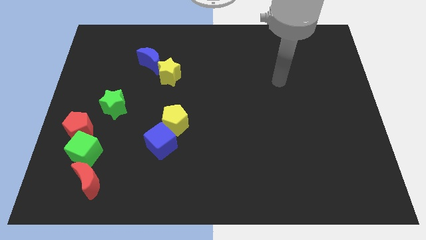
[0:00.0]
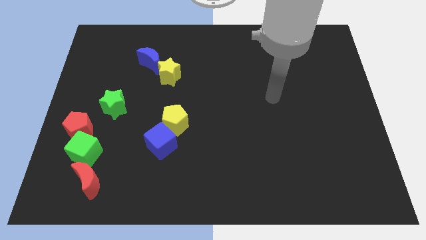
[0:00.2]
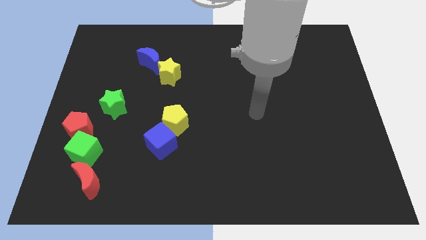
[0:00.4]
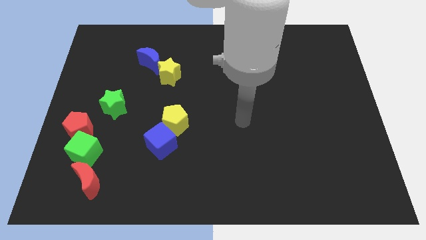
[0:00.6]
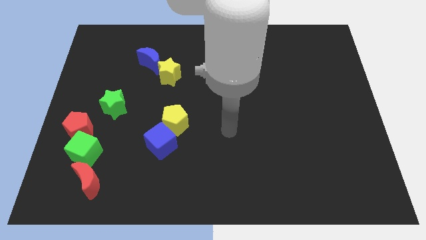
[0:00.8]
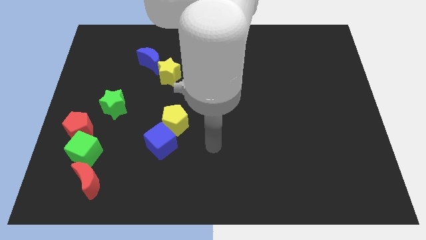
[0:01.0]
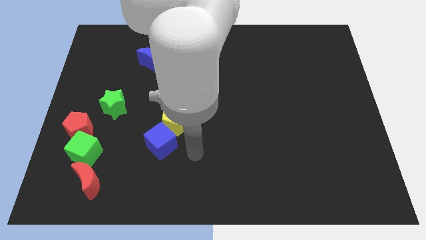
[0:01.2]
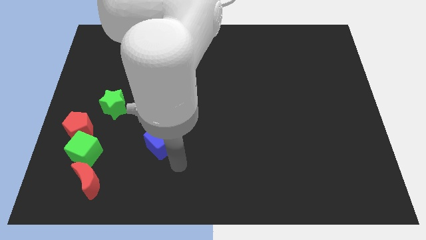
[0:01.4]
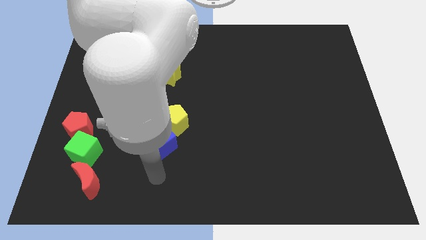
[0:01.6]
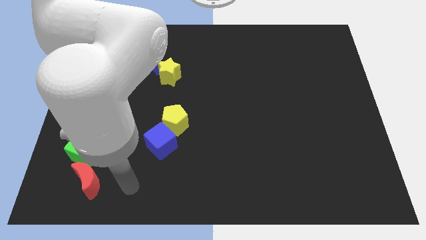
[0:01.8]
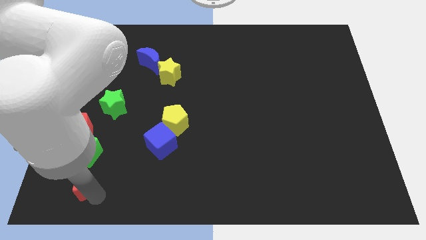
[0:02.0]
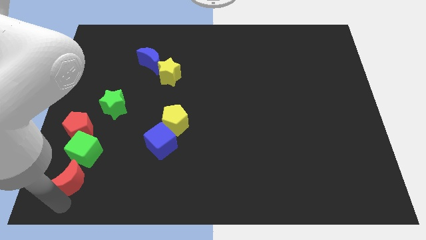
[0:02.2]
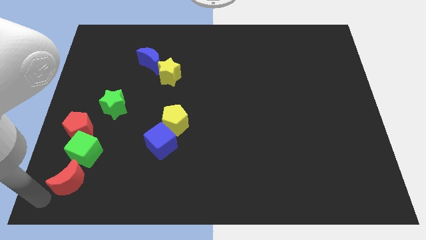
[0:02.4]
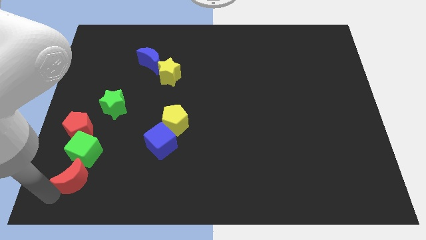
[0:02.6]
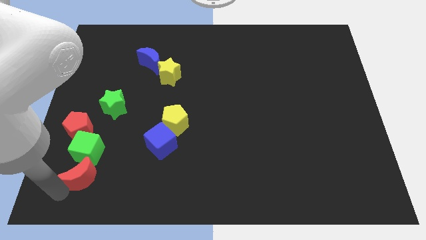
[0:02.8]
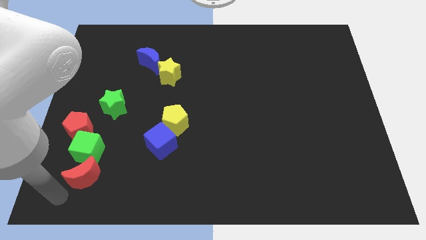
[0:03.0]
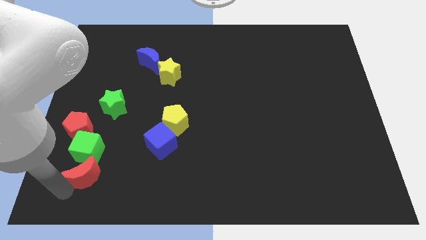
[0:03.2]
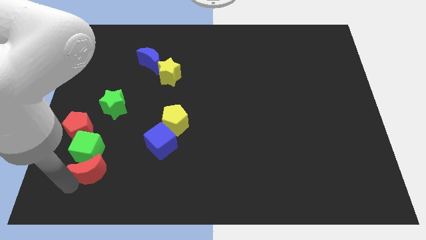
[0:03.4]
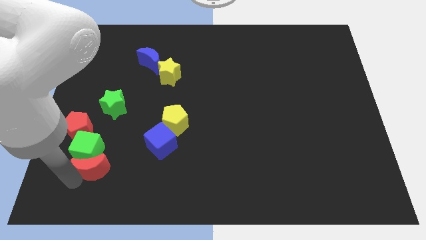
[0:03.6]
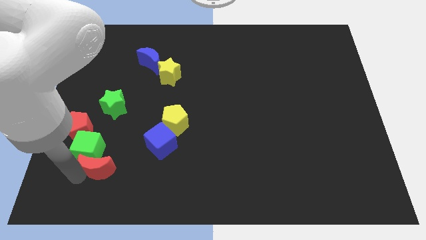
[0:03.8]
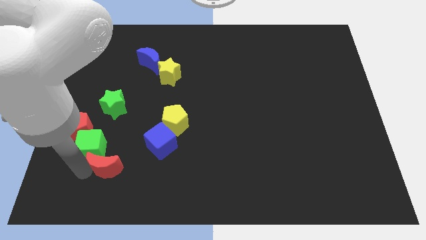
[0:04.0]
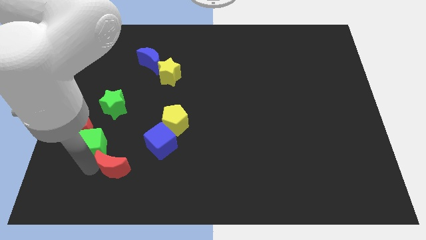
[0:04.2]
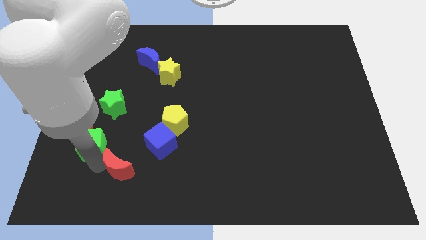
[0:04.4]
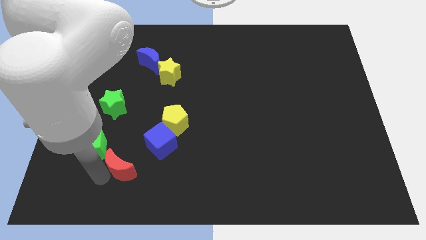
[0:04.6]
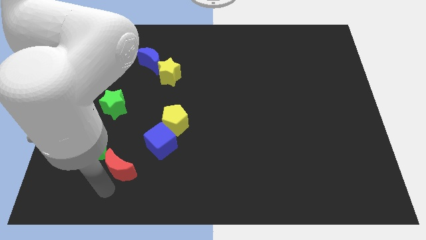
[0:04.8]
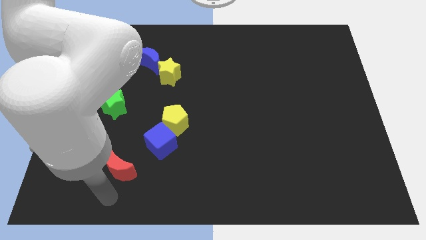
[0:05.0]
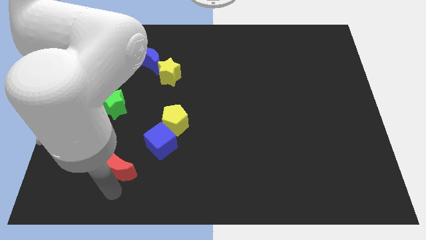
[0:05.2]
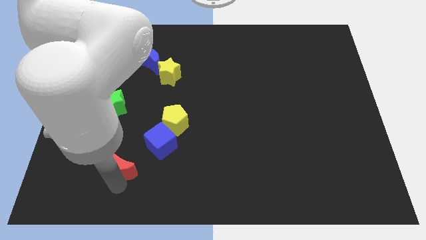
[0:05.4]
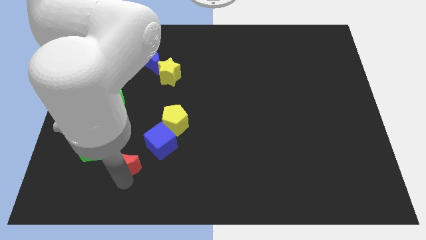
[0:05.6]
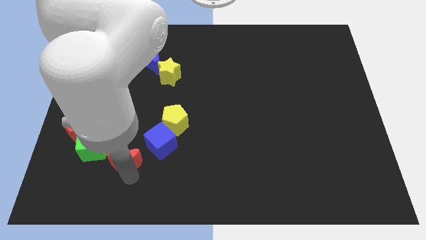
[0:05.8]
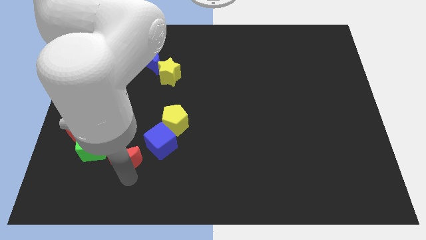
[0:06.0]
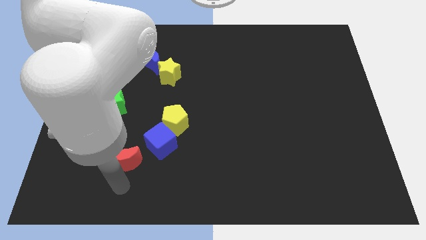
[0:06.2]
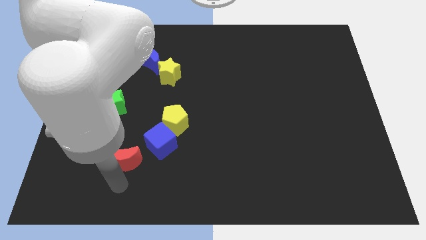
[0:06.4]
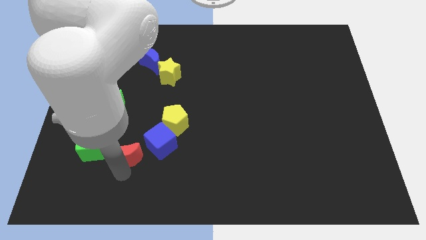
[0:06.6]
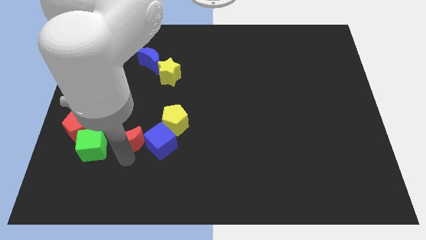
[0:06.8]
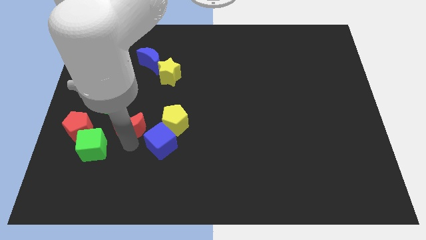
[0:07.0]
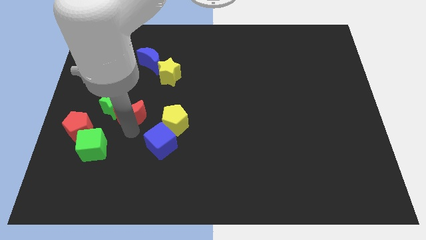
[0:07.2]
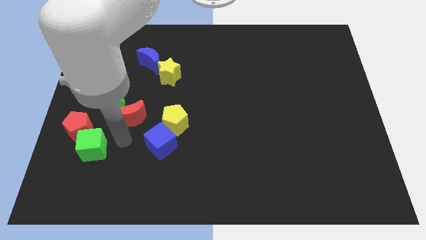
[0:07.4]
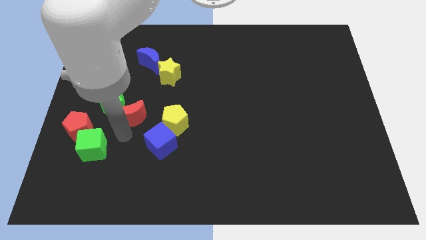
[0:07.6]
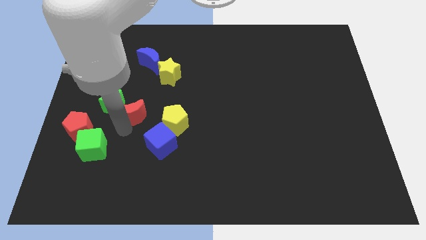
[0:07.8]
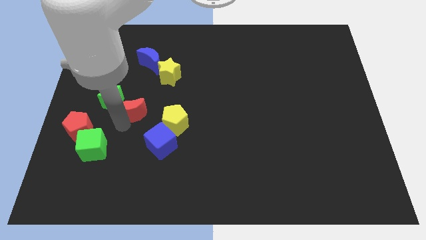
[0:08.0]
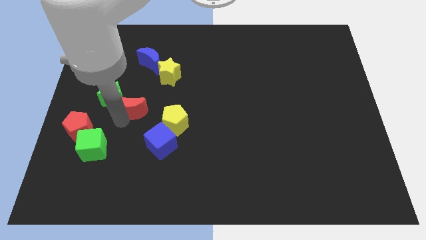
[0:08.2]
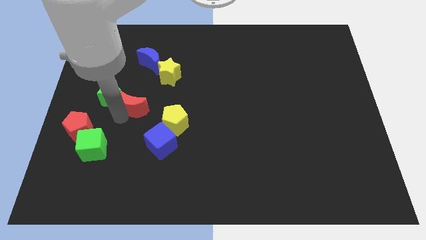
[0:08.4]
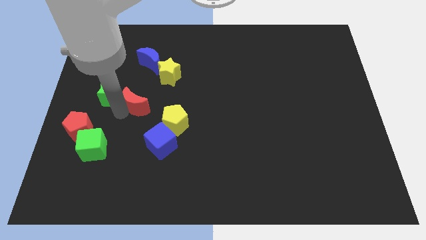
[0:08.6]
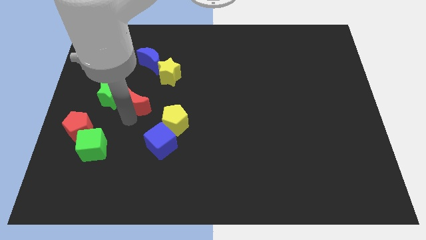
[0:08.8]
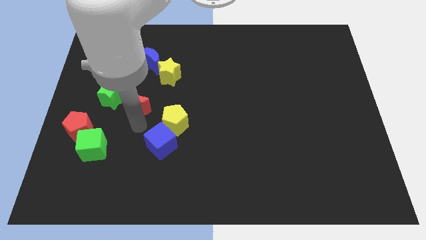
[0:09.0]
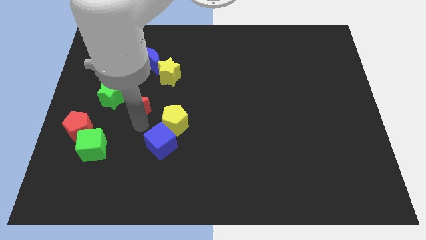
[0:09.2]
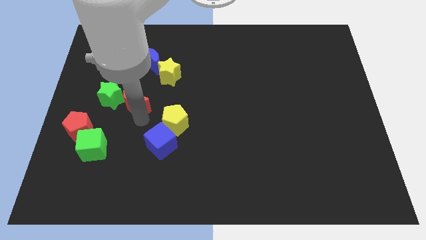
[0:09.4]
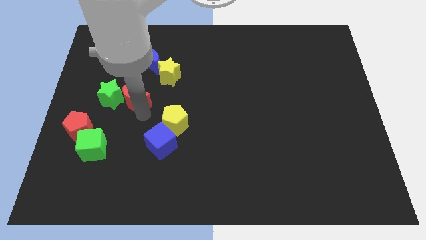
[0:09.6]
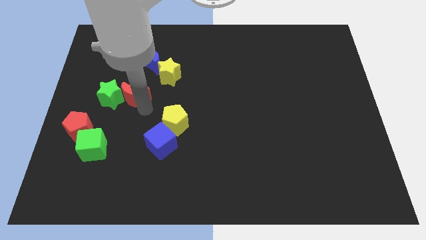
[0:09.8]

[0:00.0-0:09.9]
move the red moon upwards

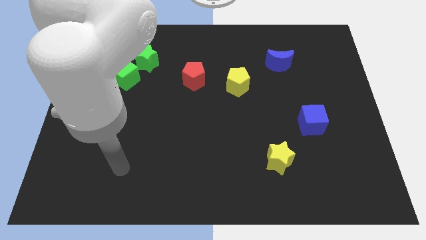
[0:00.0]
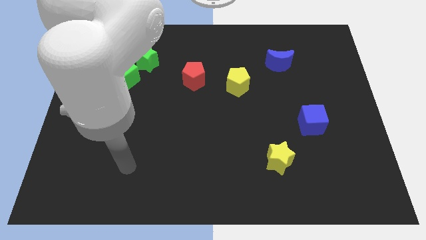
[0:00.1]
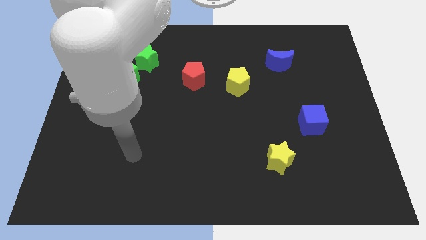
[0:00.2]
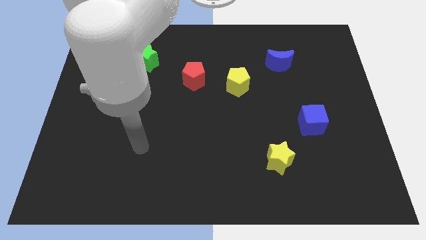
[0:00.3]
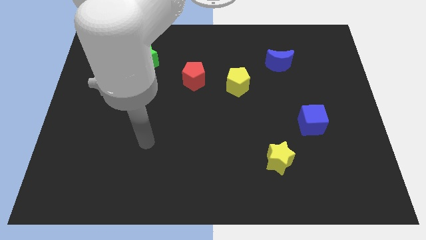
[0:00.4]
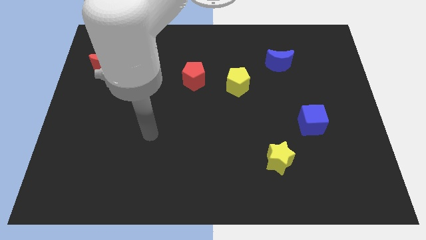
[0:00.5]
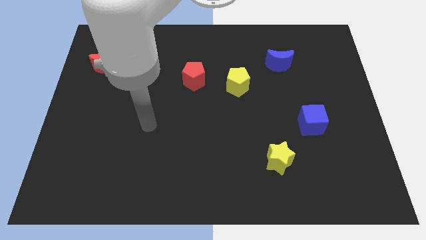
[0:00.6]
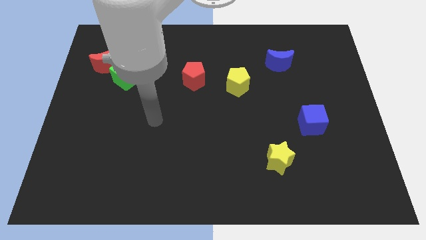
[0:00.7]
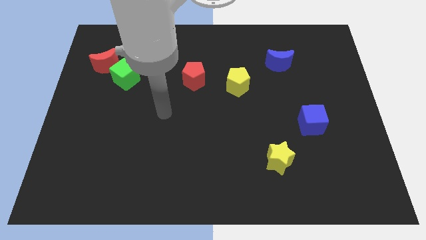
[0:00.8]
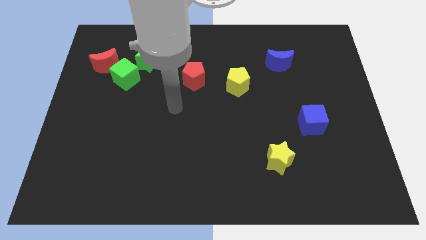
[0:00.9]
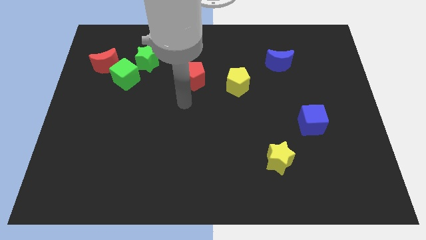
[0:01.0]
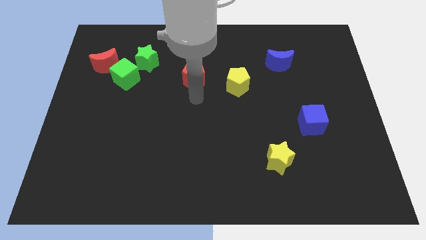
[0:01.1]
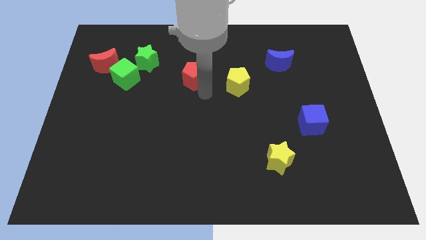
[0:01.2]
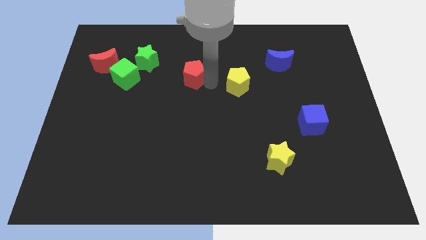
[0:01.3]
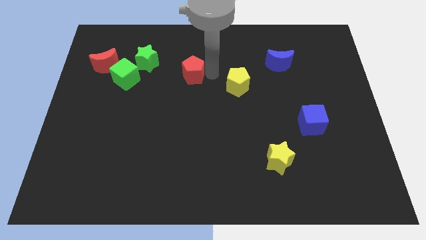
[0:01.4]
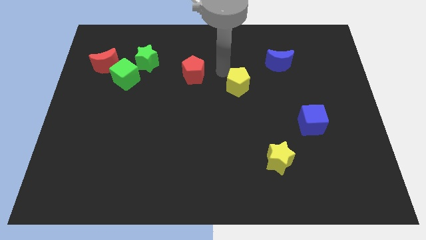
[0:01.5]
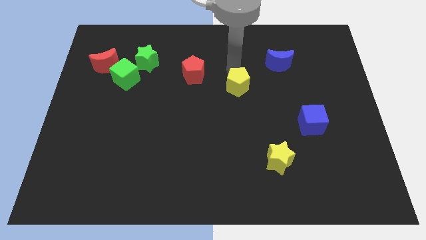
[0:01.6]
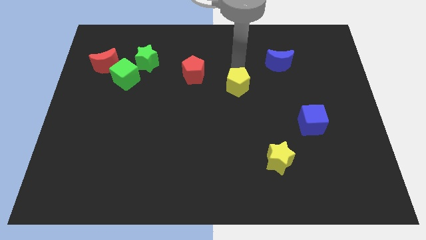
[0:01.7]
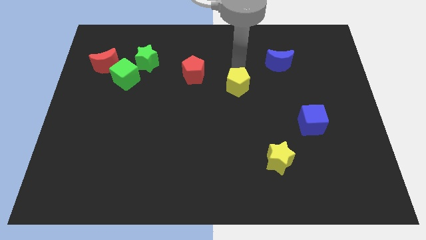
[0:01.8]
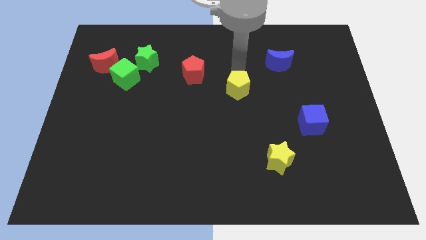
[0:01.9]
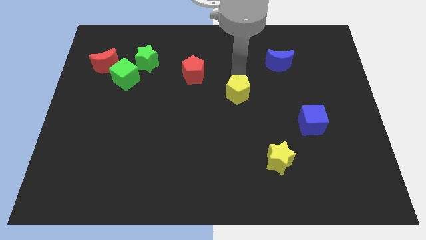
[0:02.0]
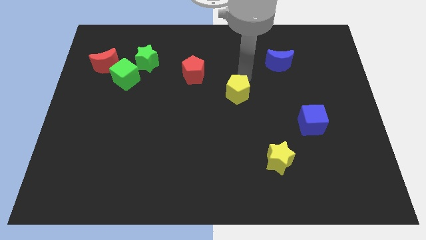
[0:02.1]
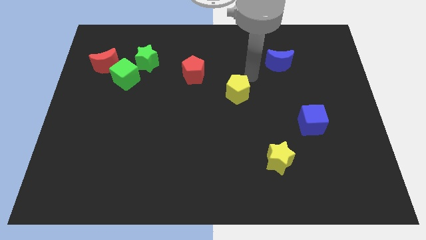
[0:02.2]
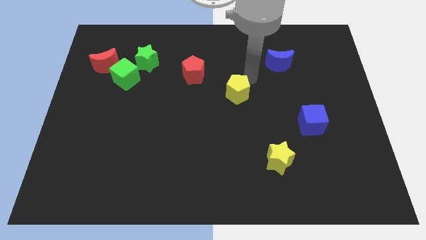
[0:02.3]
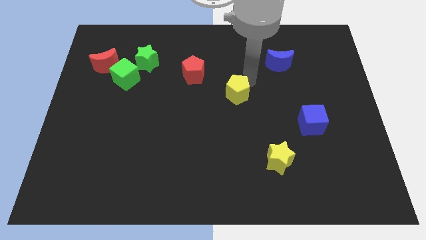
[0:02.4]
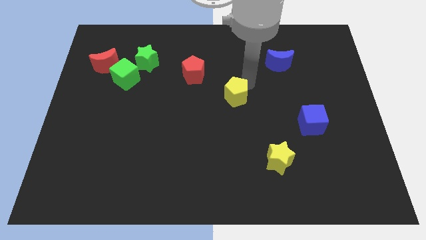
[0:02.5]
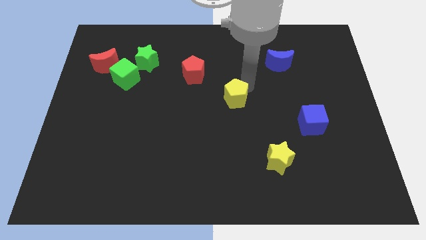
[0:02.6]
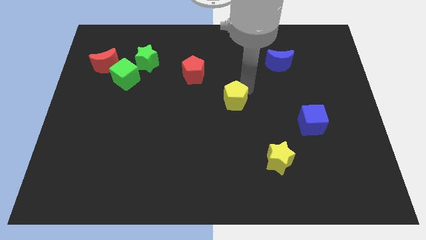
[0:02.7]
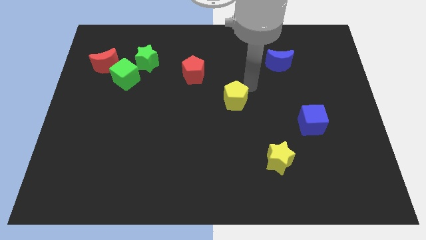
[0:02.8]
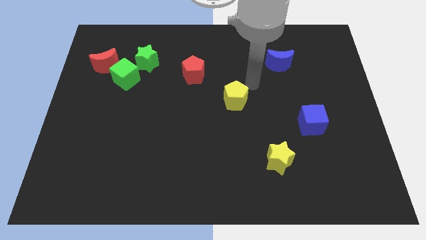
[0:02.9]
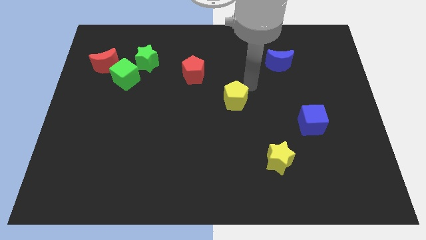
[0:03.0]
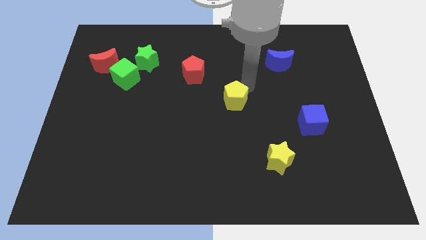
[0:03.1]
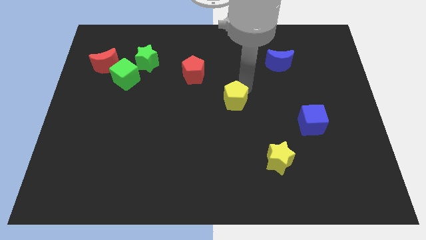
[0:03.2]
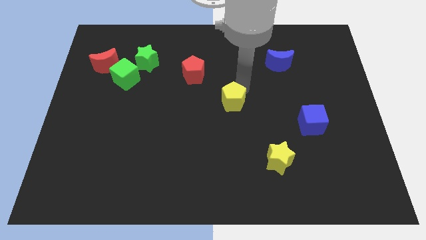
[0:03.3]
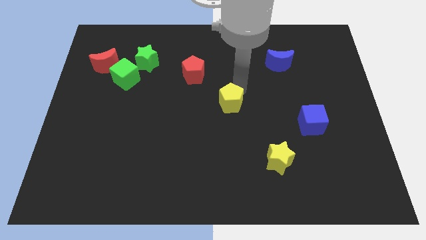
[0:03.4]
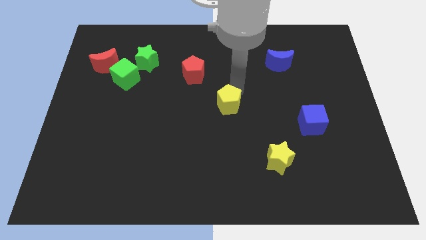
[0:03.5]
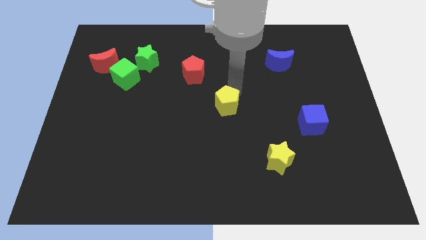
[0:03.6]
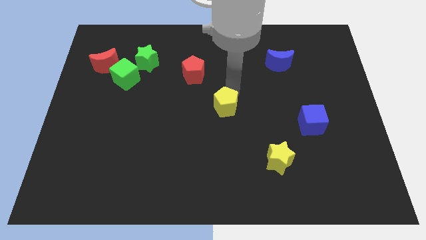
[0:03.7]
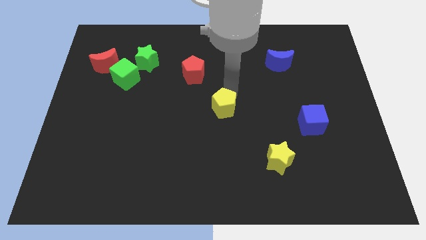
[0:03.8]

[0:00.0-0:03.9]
move the yellow pentagon a little bit down and then to the left
